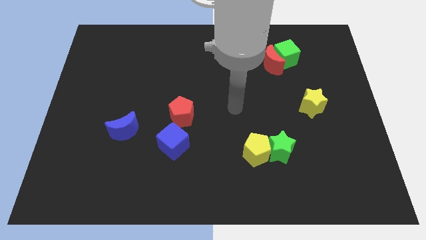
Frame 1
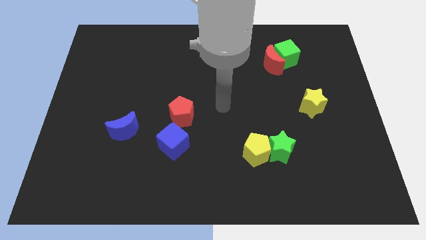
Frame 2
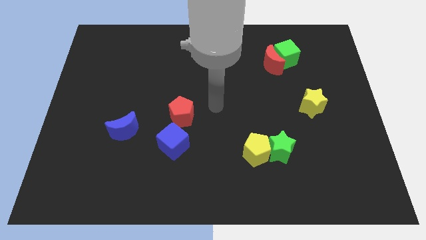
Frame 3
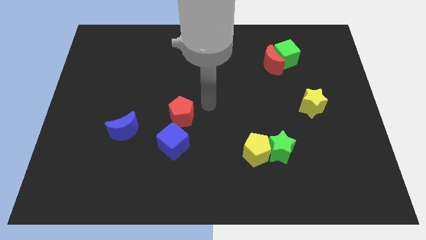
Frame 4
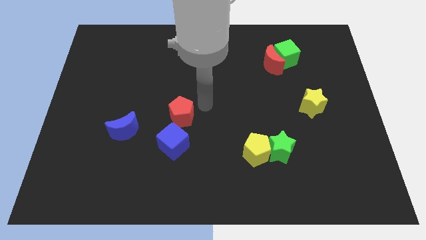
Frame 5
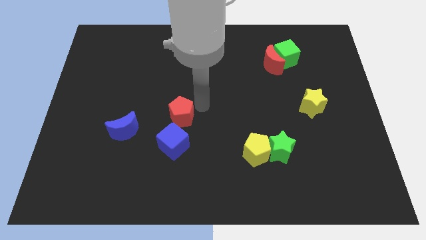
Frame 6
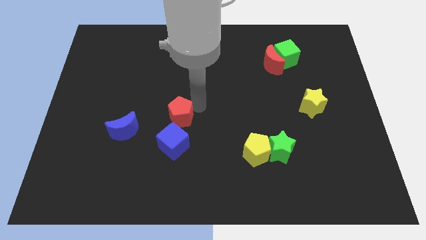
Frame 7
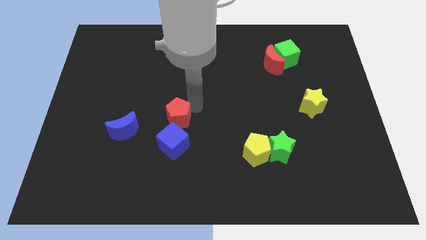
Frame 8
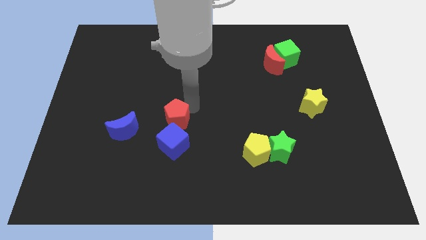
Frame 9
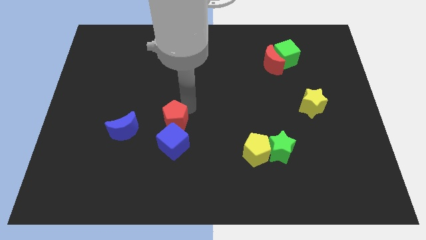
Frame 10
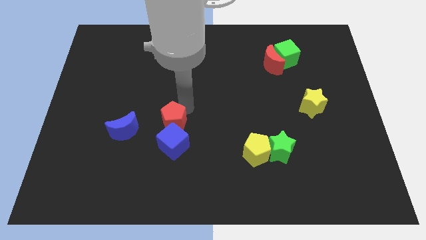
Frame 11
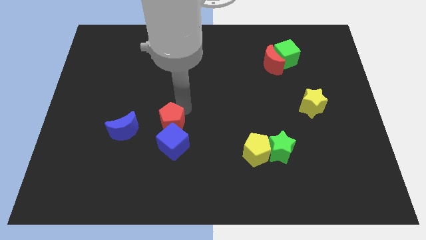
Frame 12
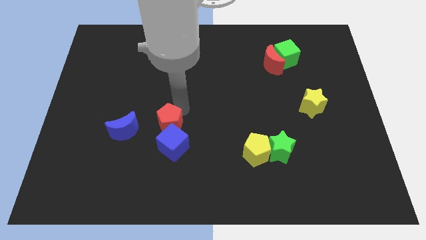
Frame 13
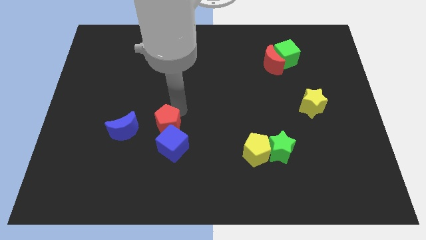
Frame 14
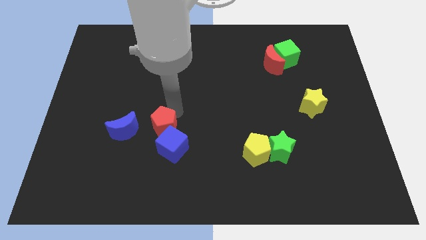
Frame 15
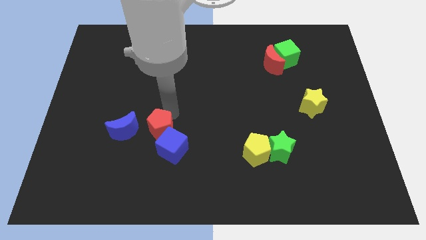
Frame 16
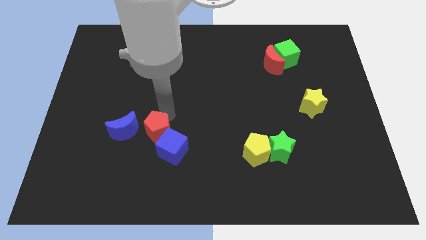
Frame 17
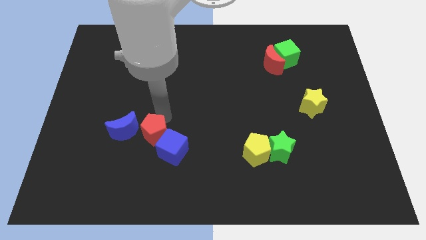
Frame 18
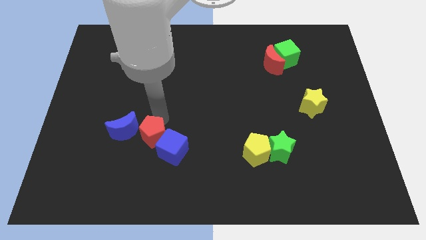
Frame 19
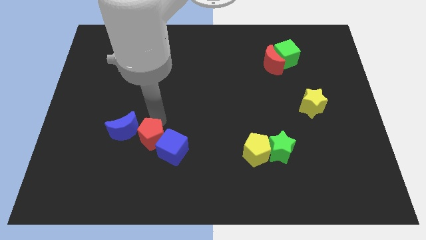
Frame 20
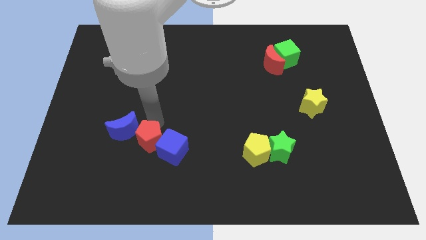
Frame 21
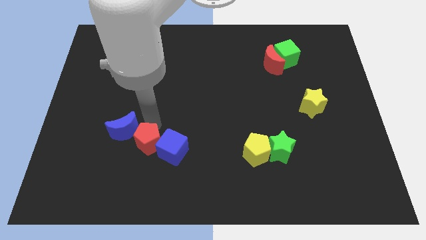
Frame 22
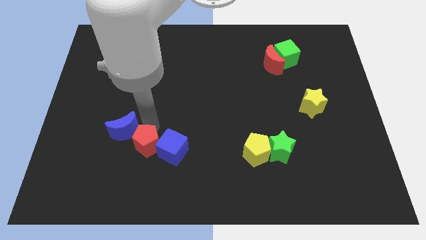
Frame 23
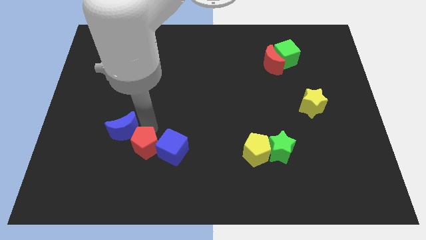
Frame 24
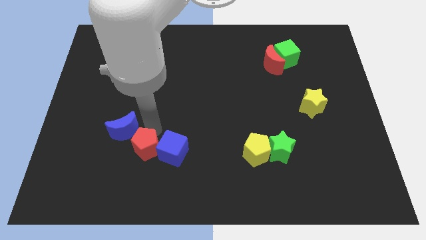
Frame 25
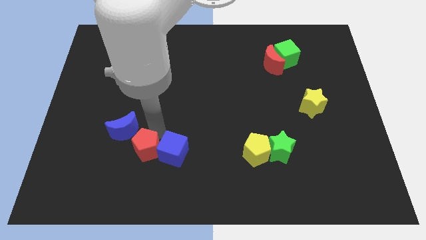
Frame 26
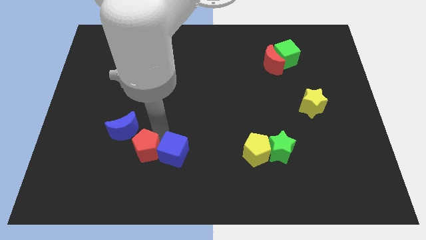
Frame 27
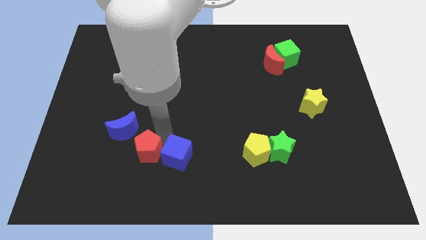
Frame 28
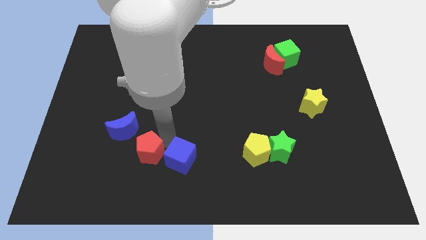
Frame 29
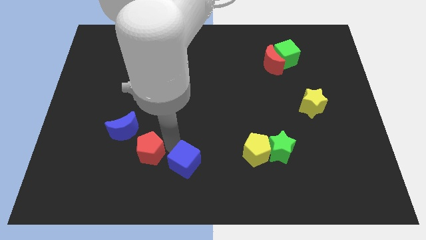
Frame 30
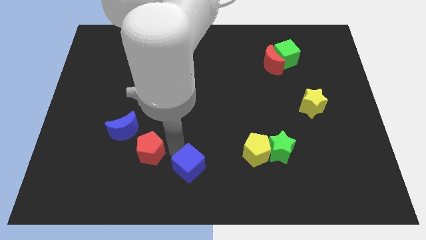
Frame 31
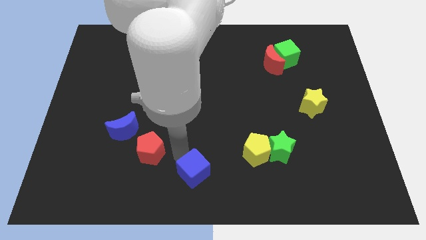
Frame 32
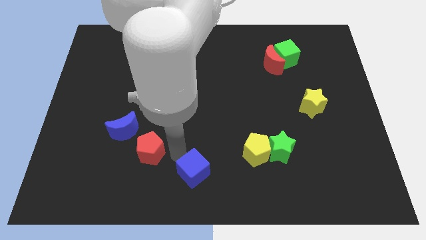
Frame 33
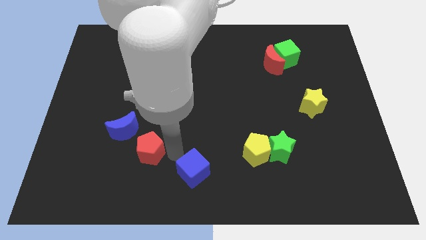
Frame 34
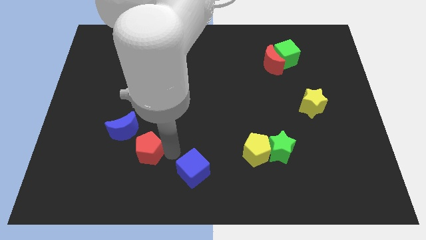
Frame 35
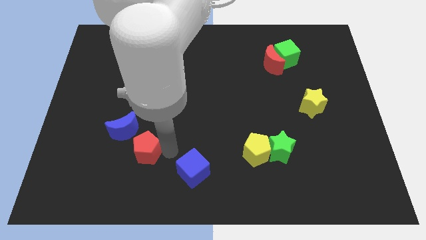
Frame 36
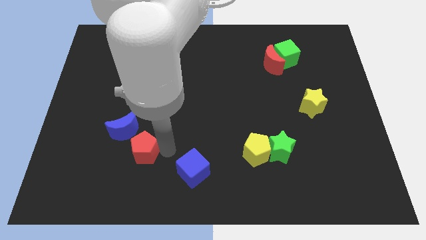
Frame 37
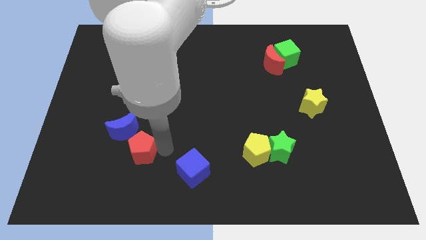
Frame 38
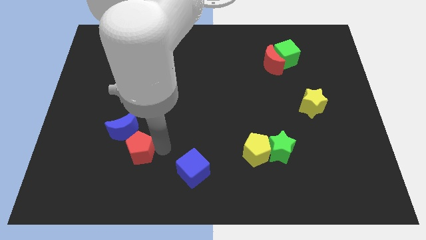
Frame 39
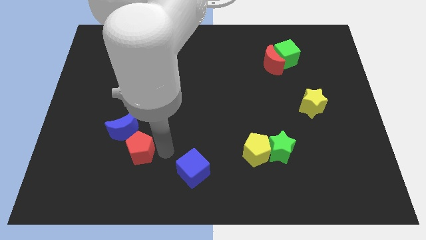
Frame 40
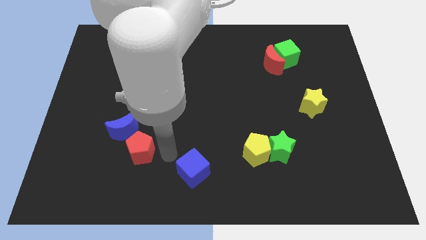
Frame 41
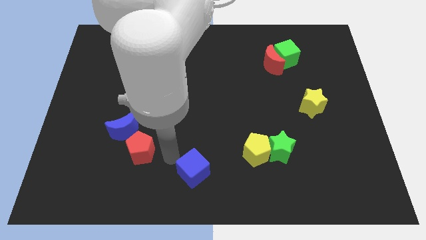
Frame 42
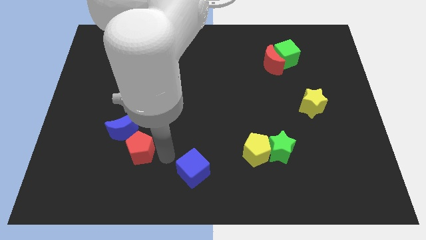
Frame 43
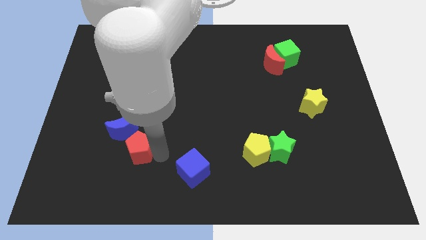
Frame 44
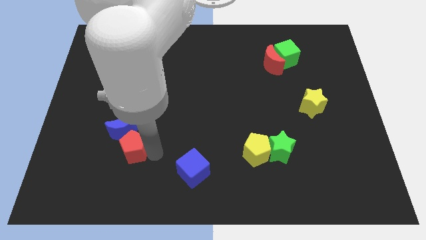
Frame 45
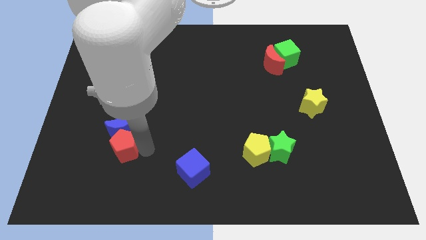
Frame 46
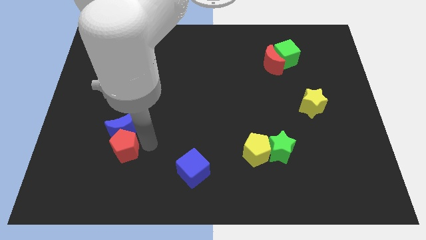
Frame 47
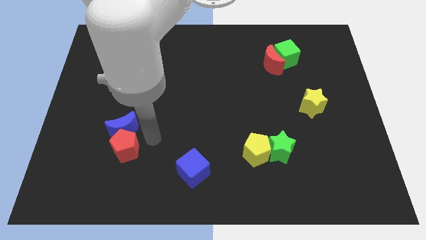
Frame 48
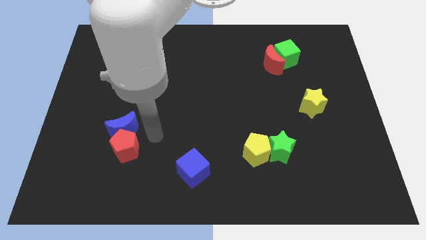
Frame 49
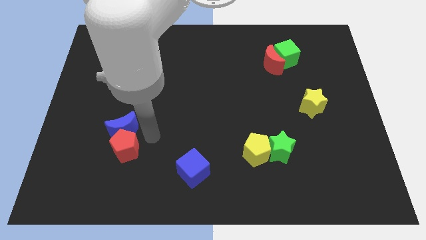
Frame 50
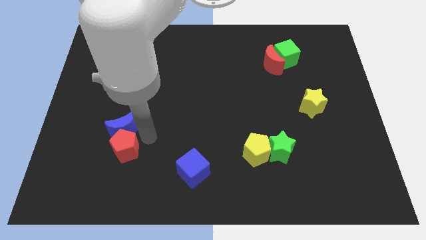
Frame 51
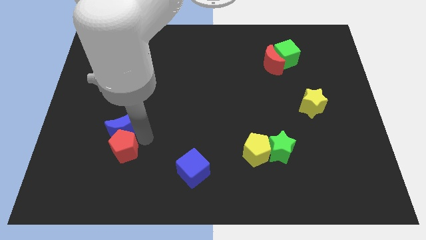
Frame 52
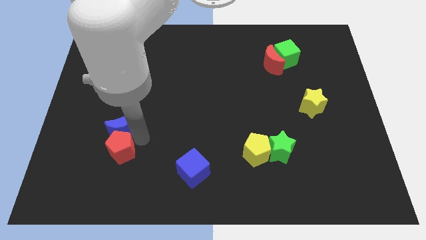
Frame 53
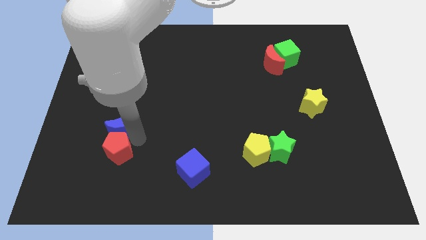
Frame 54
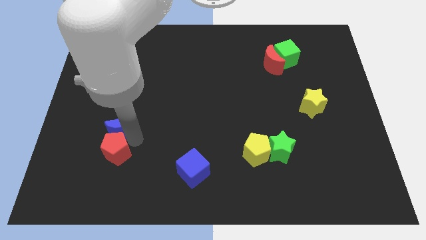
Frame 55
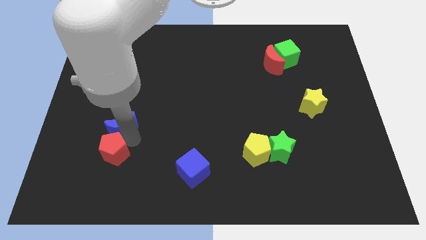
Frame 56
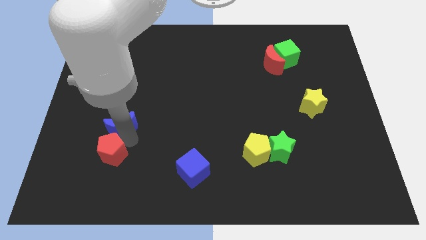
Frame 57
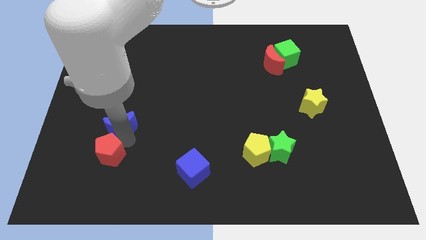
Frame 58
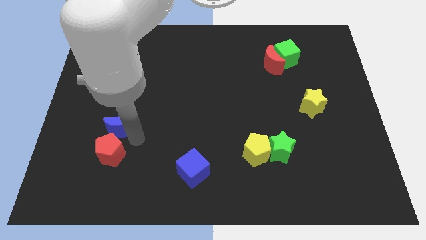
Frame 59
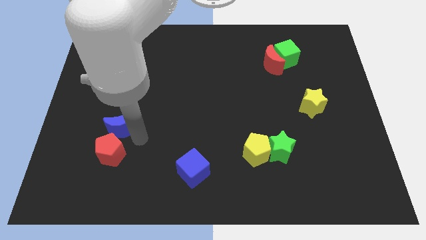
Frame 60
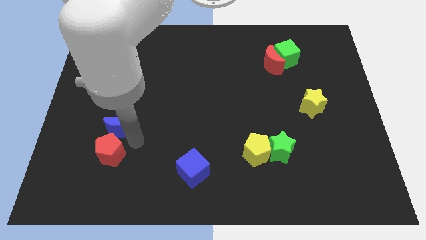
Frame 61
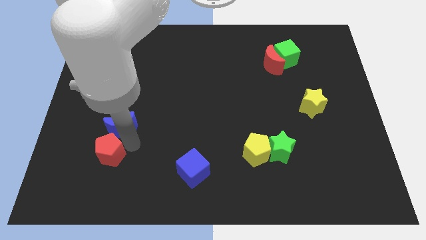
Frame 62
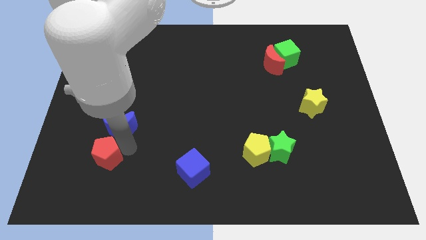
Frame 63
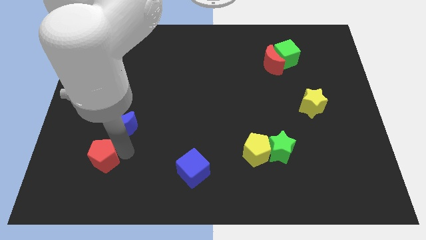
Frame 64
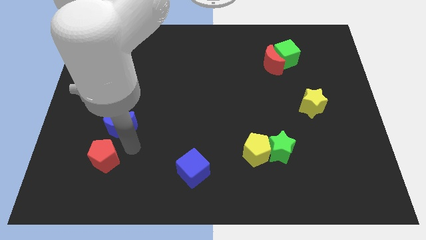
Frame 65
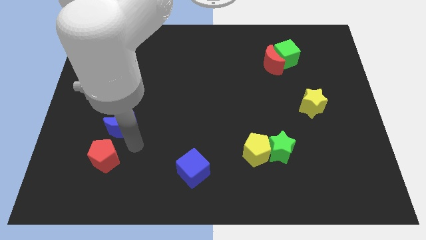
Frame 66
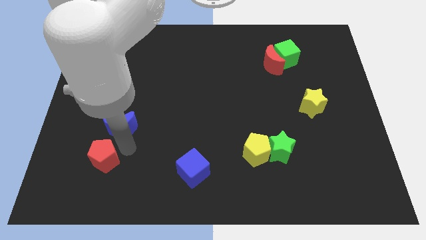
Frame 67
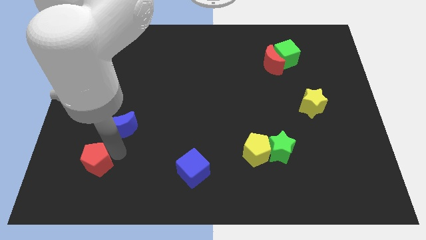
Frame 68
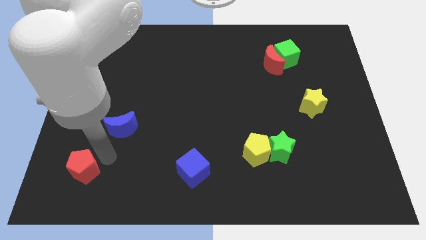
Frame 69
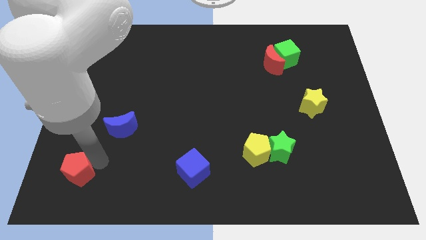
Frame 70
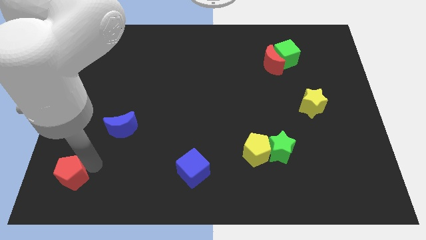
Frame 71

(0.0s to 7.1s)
put the red pentagon to the bottom left
